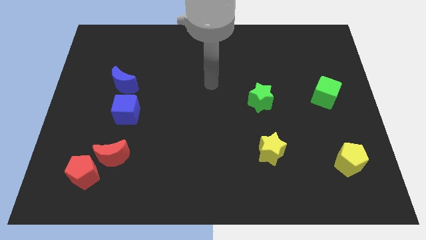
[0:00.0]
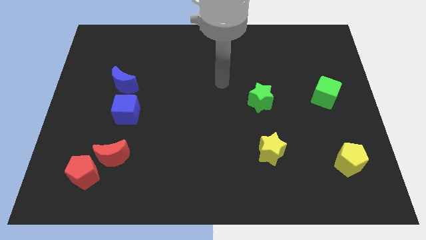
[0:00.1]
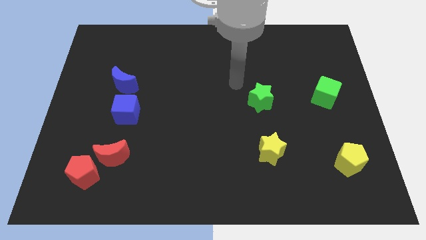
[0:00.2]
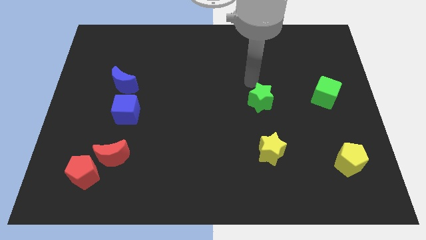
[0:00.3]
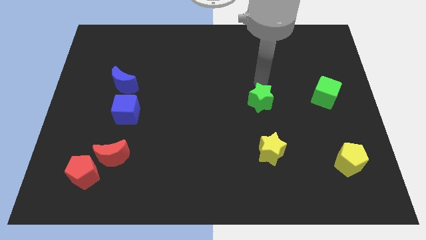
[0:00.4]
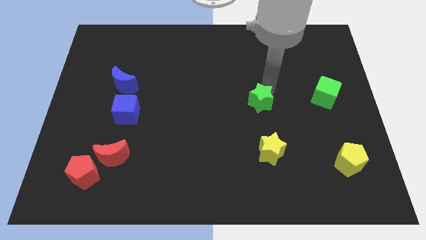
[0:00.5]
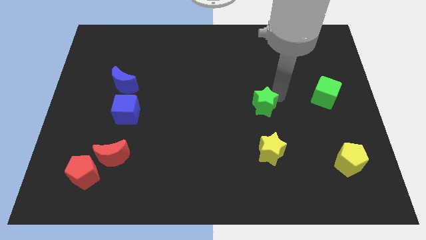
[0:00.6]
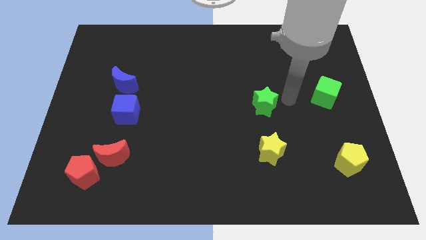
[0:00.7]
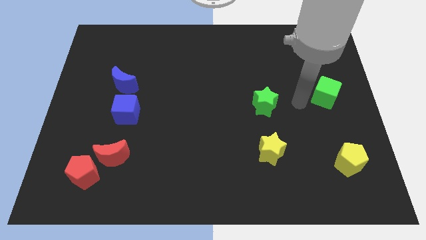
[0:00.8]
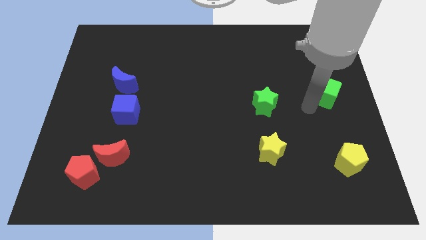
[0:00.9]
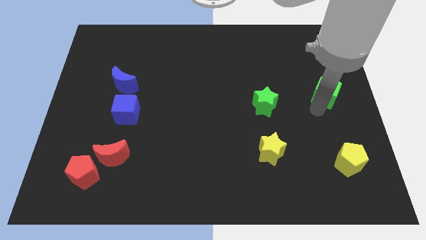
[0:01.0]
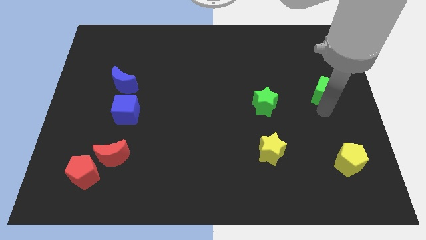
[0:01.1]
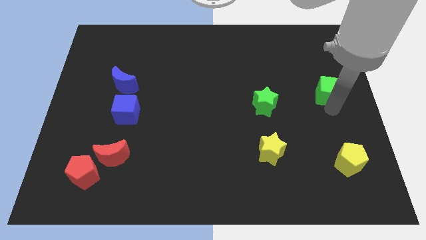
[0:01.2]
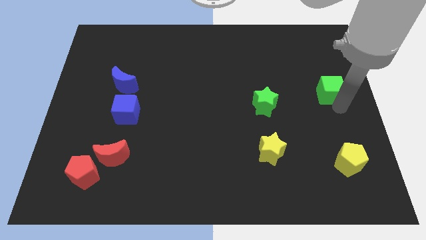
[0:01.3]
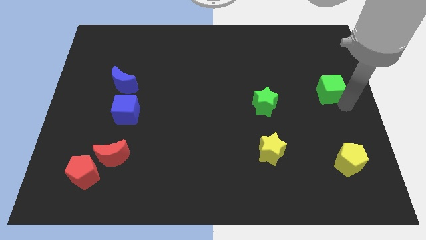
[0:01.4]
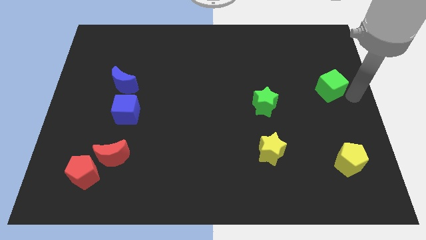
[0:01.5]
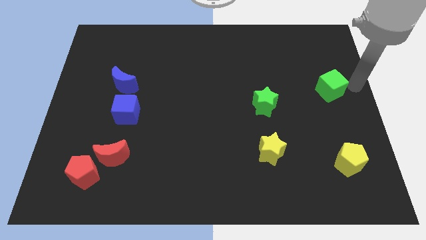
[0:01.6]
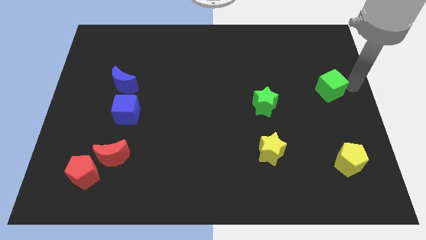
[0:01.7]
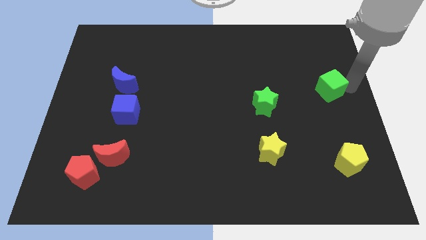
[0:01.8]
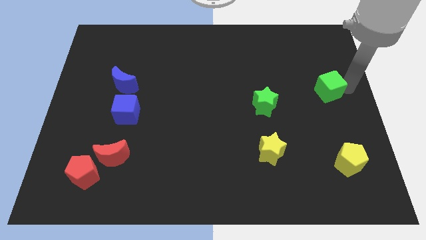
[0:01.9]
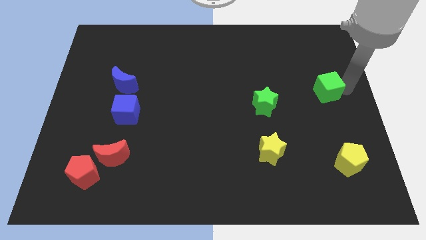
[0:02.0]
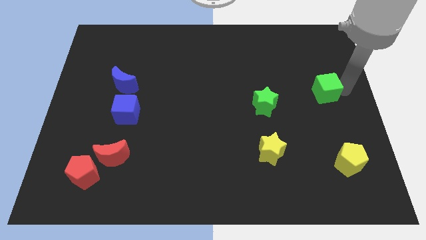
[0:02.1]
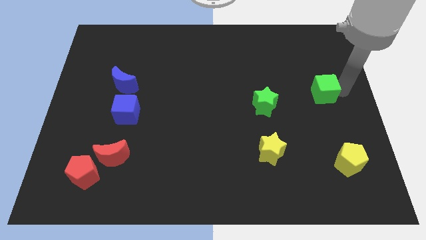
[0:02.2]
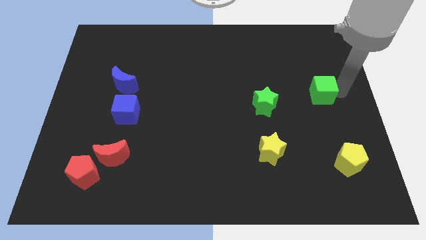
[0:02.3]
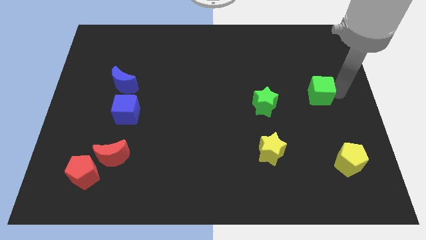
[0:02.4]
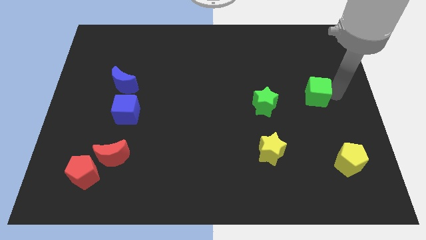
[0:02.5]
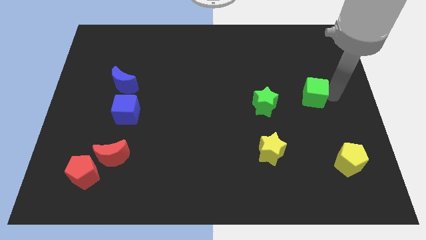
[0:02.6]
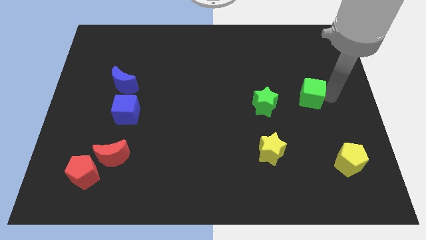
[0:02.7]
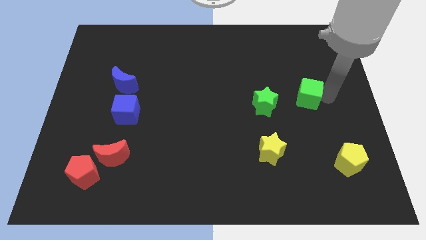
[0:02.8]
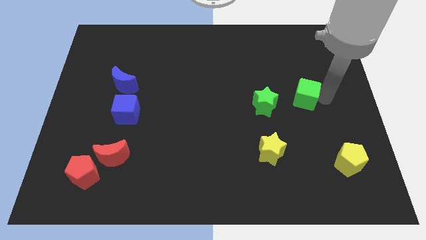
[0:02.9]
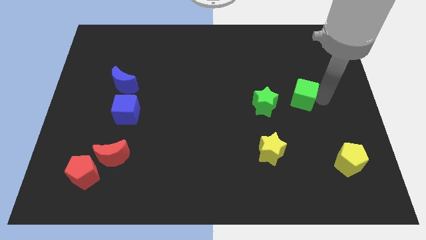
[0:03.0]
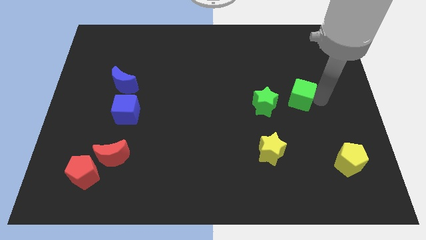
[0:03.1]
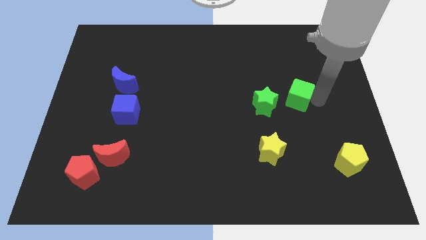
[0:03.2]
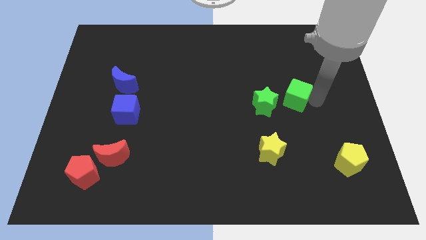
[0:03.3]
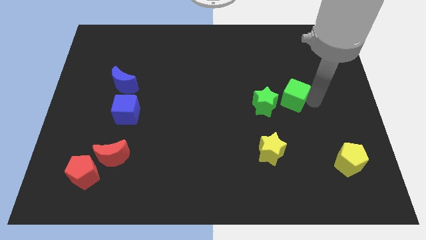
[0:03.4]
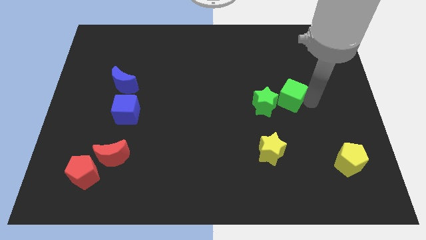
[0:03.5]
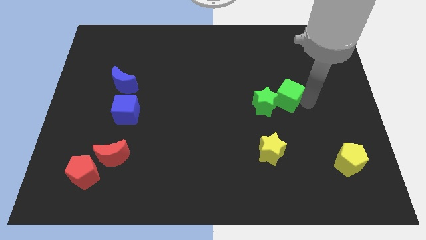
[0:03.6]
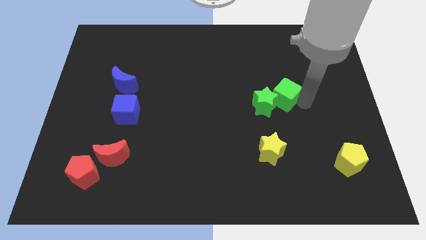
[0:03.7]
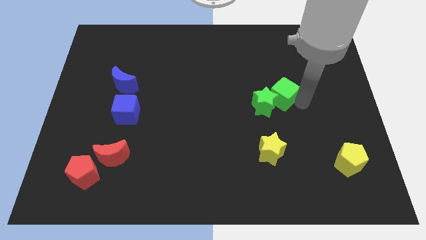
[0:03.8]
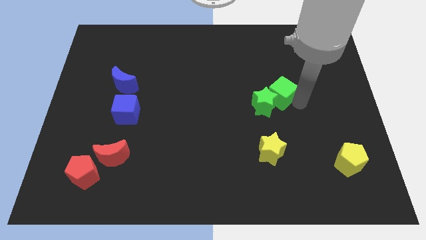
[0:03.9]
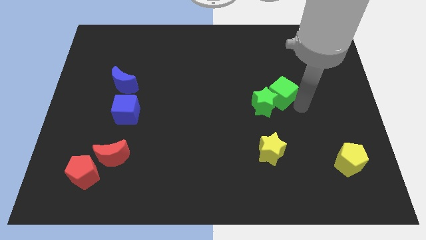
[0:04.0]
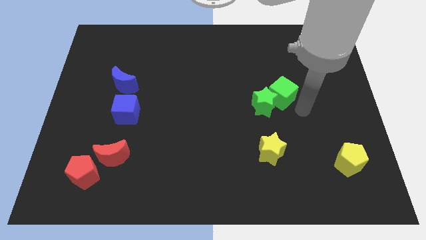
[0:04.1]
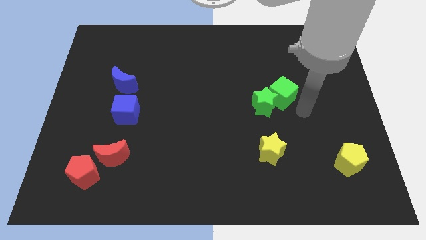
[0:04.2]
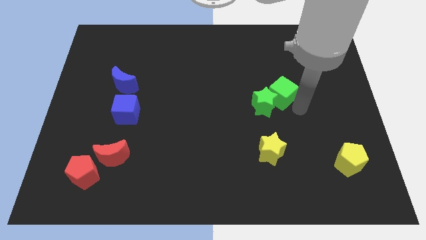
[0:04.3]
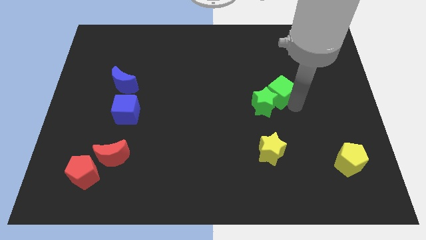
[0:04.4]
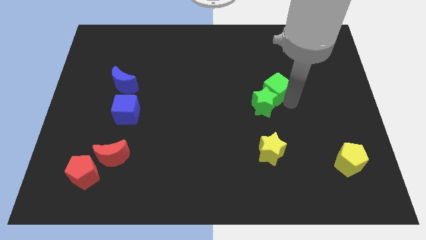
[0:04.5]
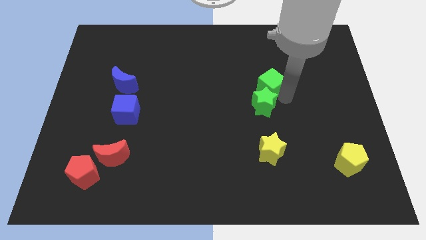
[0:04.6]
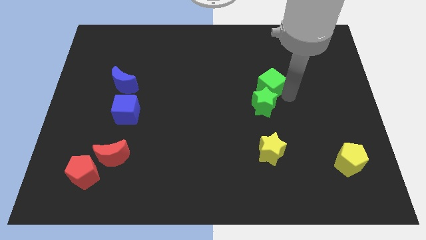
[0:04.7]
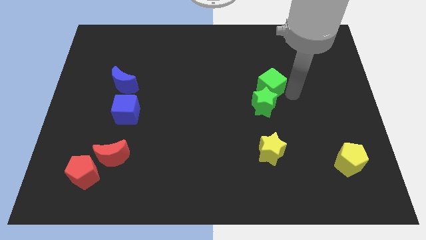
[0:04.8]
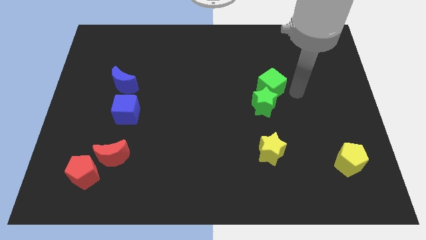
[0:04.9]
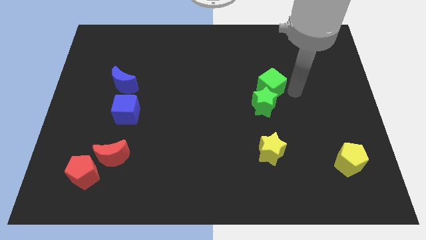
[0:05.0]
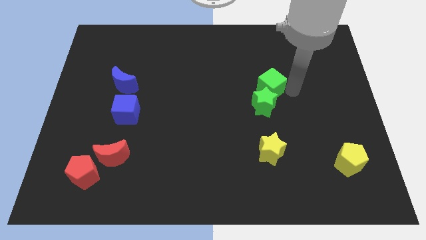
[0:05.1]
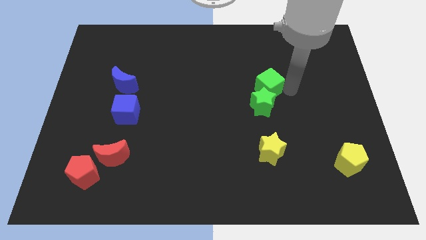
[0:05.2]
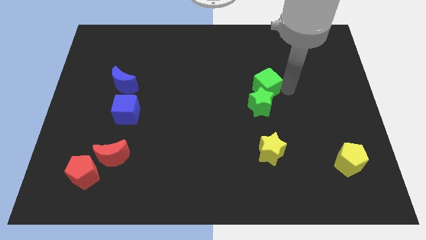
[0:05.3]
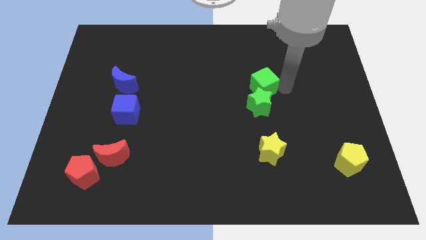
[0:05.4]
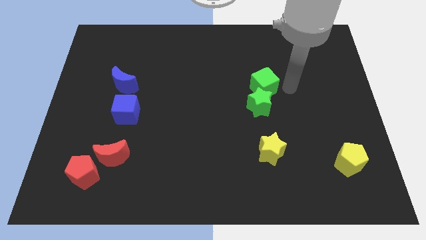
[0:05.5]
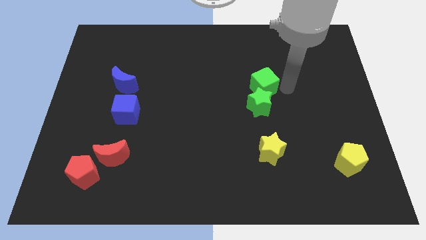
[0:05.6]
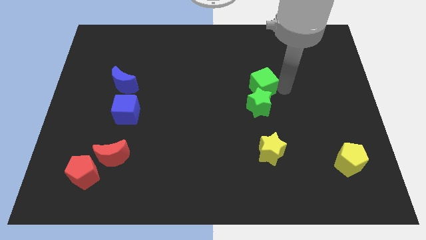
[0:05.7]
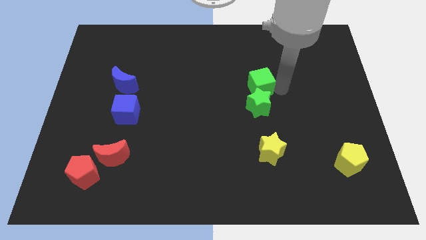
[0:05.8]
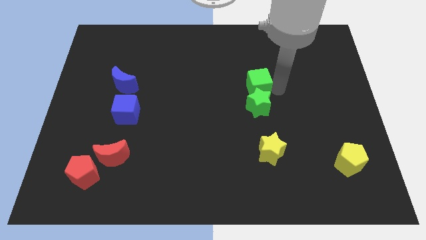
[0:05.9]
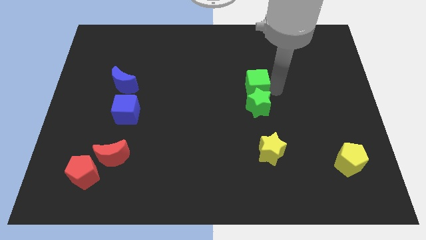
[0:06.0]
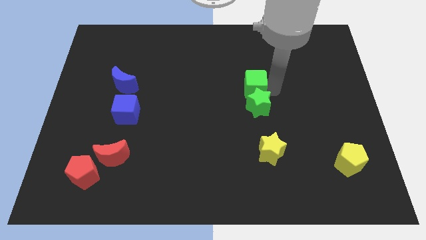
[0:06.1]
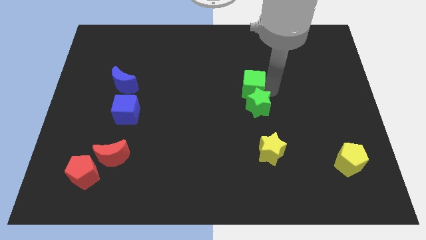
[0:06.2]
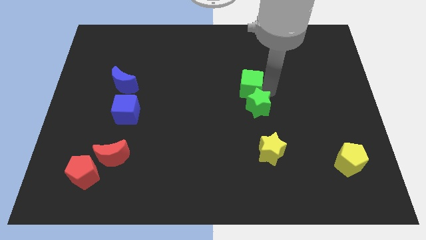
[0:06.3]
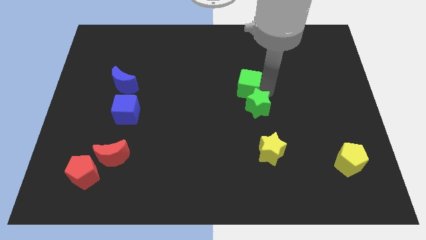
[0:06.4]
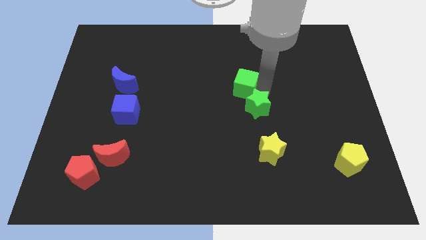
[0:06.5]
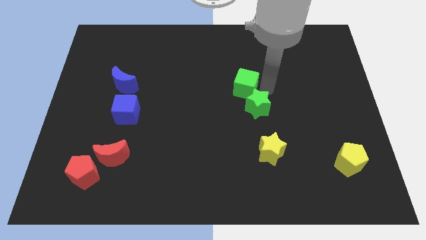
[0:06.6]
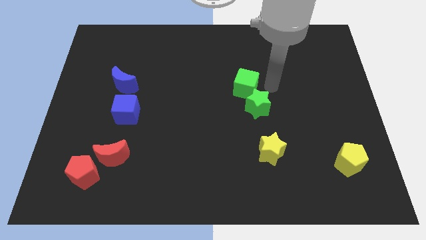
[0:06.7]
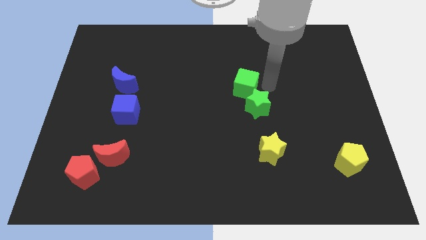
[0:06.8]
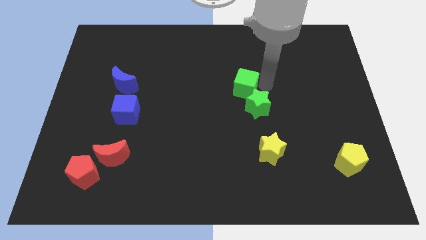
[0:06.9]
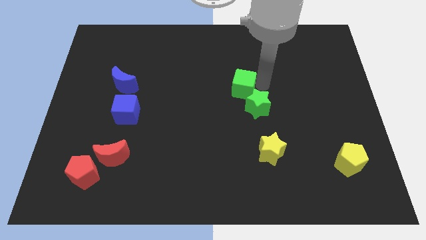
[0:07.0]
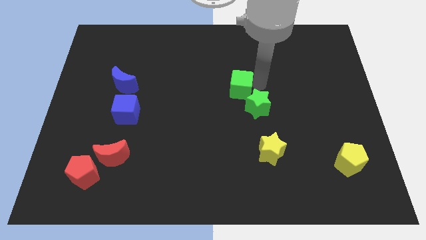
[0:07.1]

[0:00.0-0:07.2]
move the green cube to the left

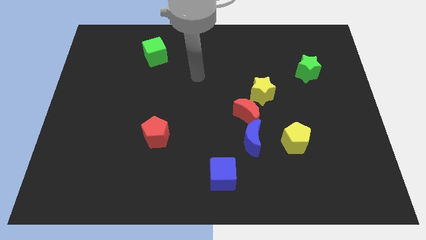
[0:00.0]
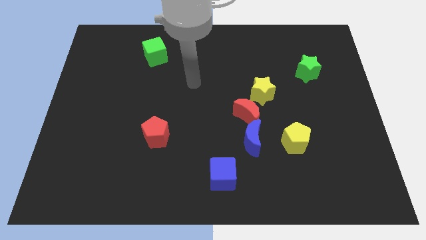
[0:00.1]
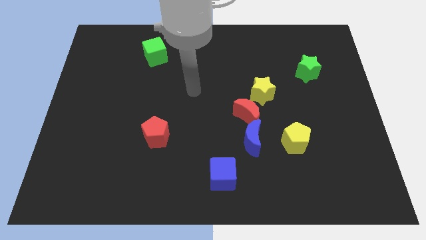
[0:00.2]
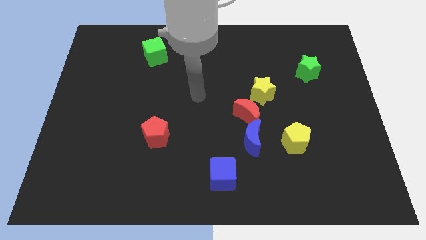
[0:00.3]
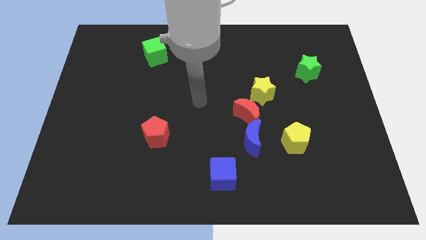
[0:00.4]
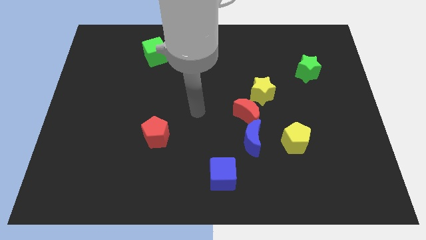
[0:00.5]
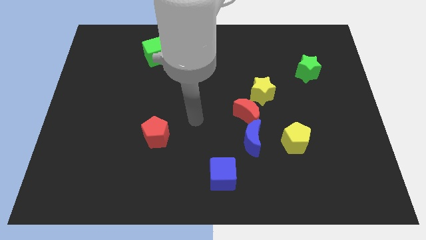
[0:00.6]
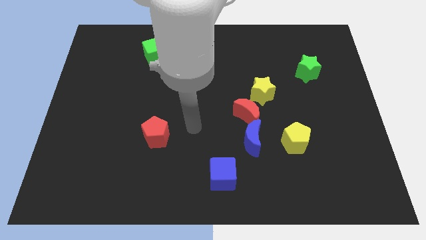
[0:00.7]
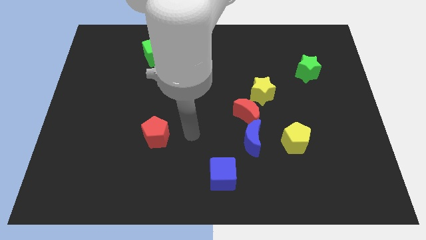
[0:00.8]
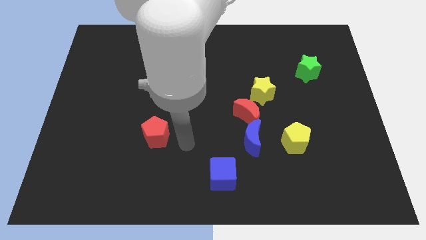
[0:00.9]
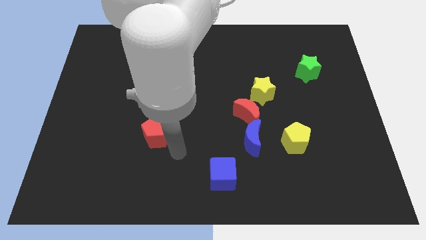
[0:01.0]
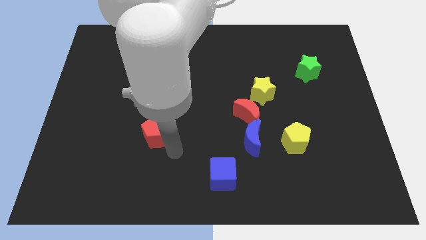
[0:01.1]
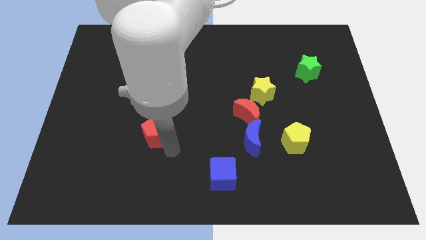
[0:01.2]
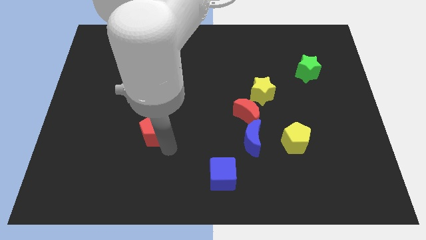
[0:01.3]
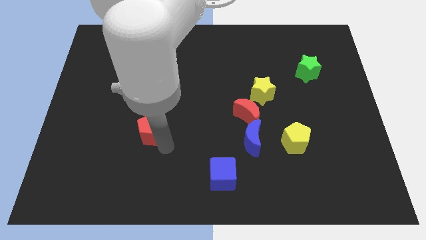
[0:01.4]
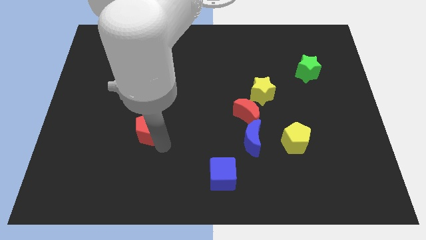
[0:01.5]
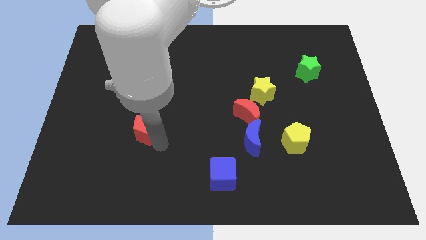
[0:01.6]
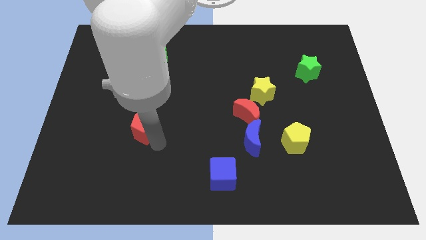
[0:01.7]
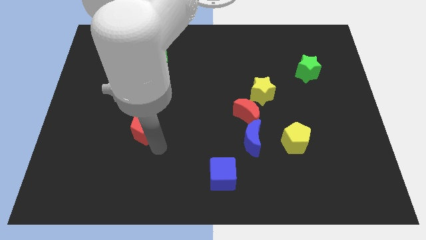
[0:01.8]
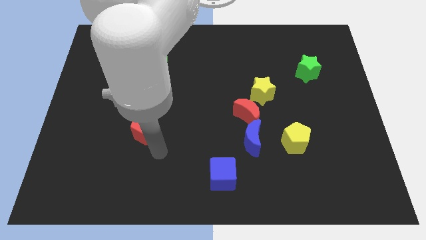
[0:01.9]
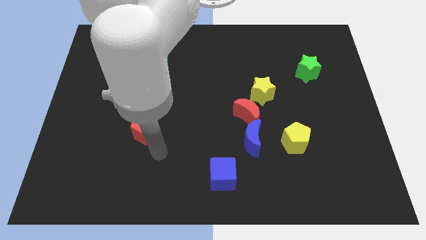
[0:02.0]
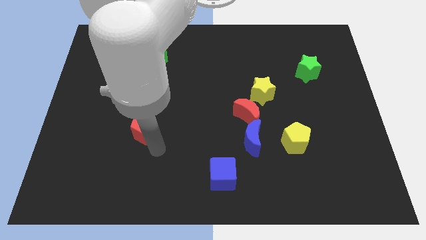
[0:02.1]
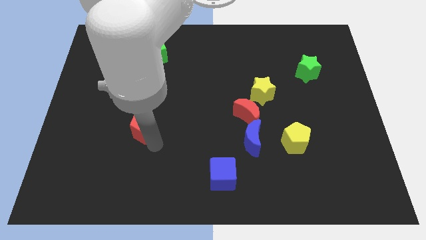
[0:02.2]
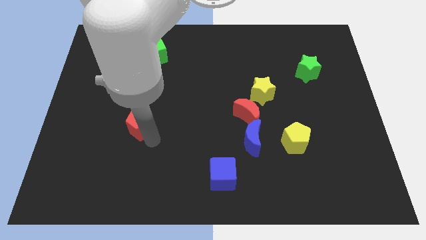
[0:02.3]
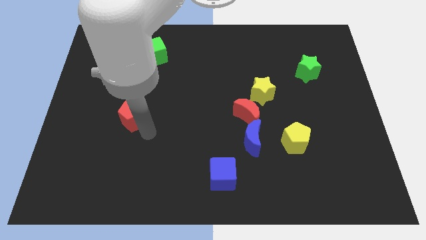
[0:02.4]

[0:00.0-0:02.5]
move the red pentagon up and to the left somewhat
